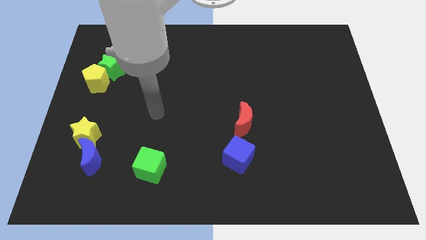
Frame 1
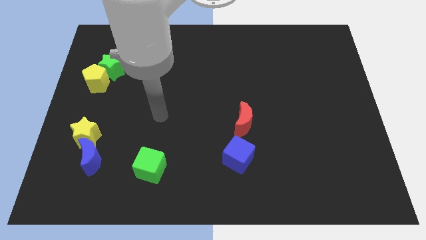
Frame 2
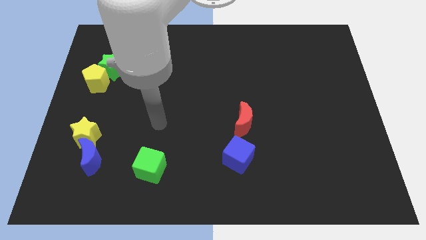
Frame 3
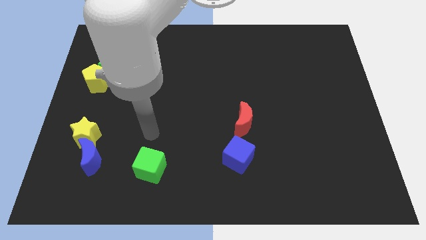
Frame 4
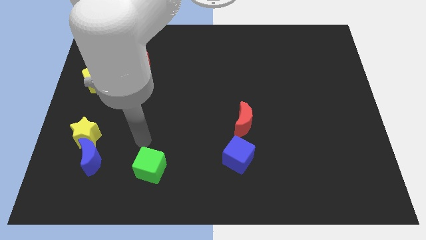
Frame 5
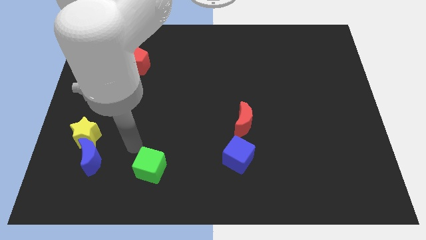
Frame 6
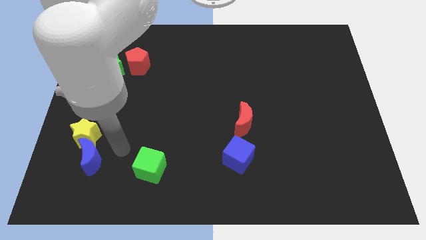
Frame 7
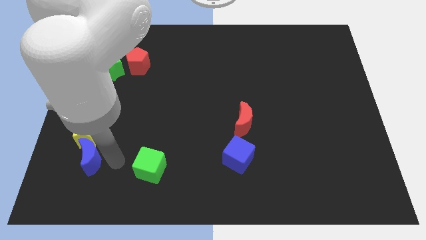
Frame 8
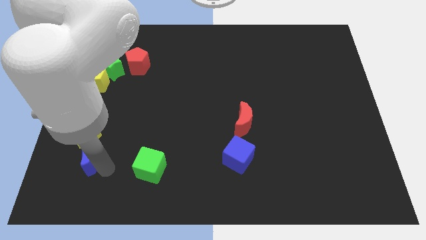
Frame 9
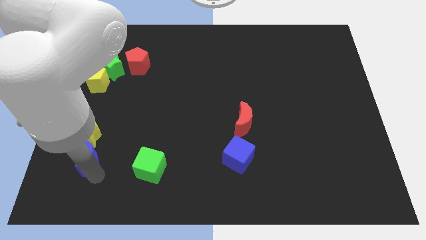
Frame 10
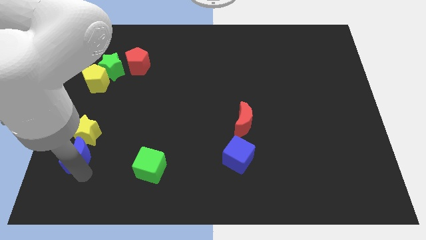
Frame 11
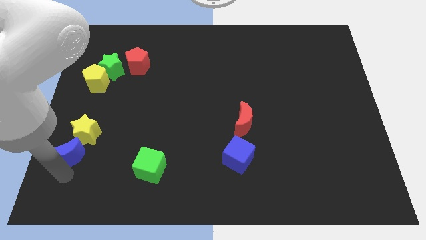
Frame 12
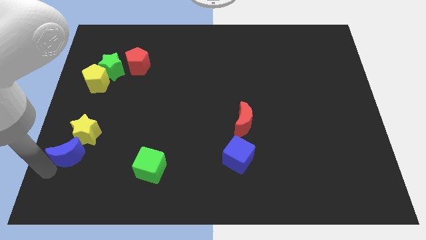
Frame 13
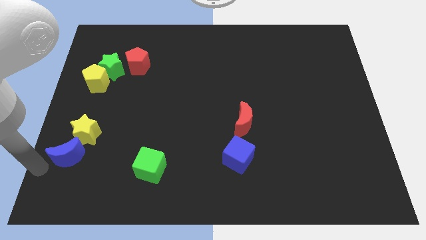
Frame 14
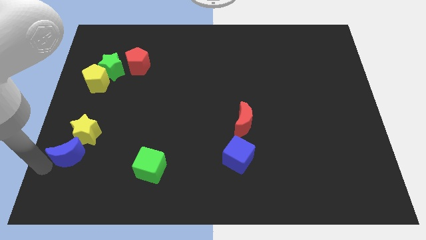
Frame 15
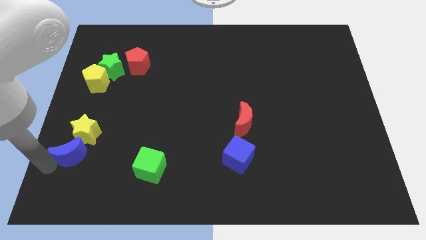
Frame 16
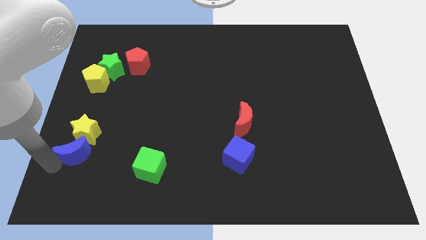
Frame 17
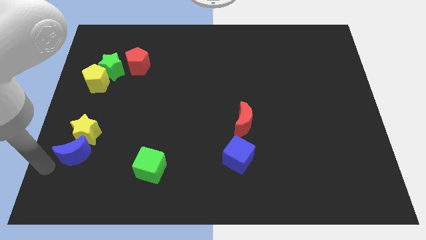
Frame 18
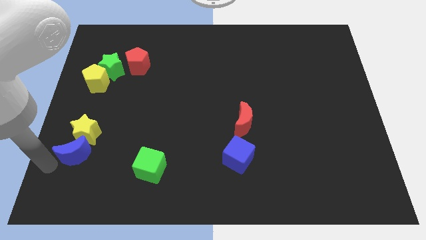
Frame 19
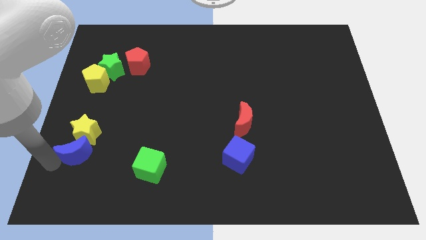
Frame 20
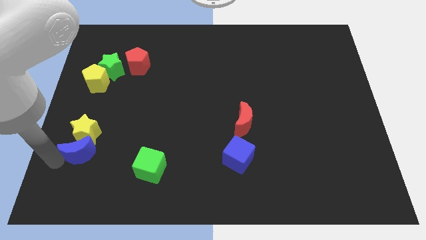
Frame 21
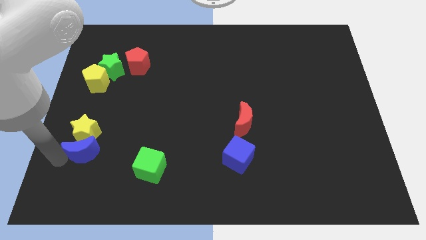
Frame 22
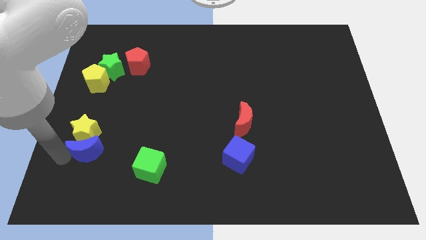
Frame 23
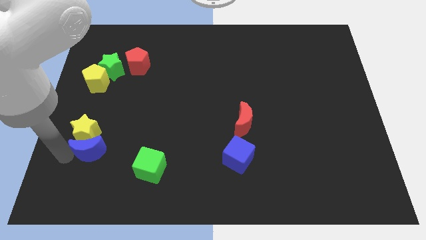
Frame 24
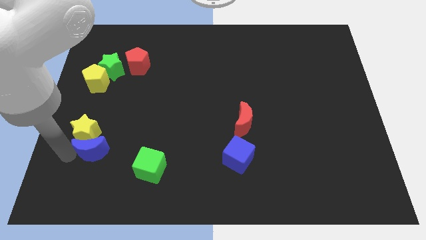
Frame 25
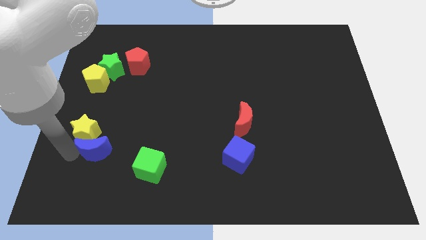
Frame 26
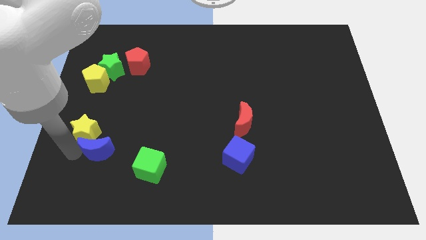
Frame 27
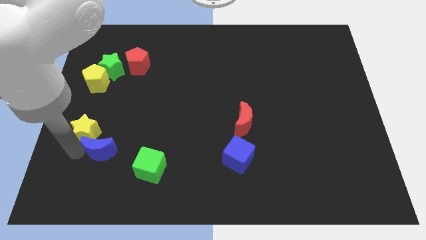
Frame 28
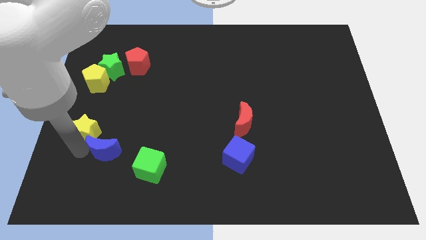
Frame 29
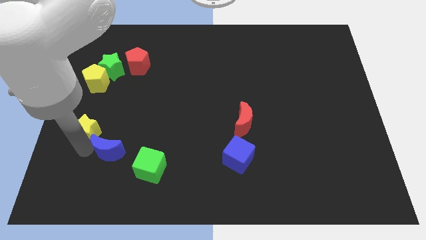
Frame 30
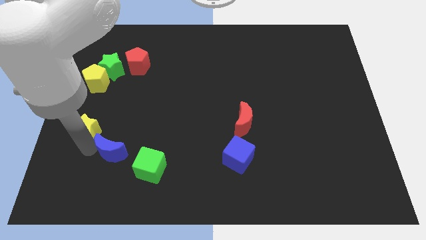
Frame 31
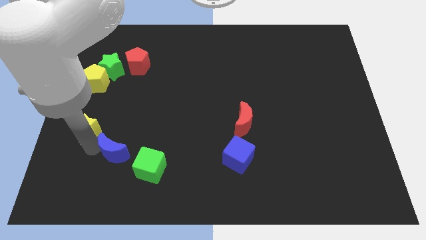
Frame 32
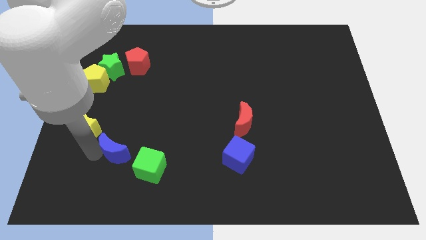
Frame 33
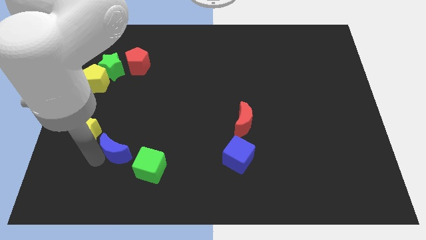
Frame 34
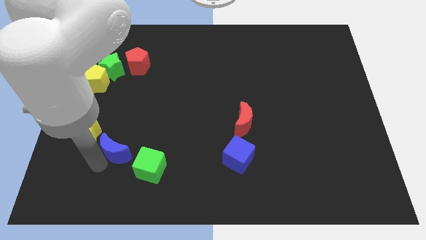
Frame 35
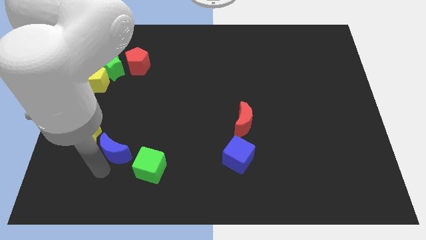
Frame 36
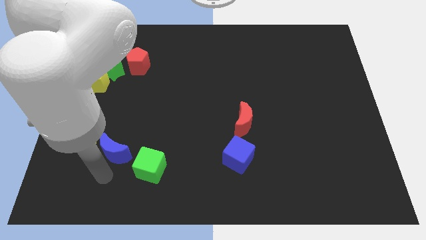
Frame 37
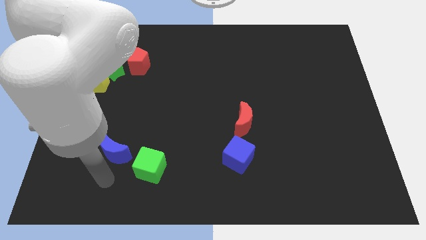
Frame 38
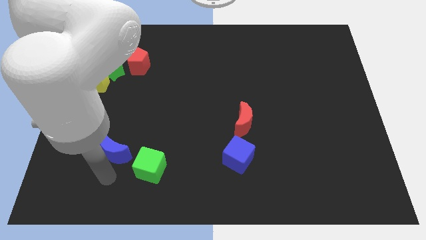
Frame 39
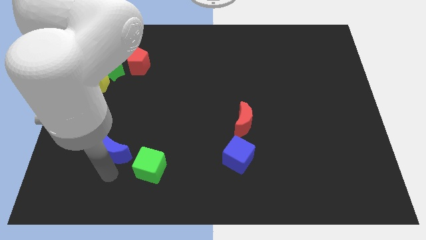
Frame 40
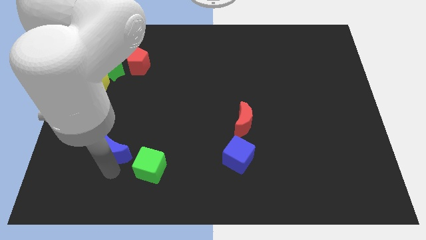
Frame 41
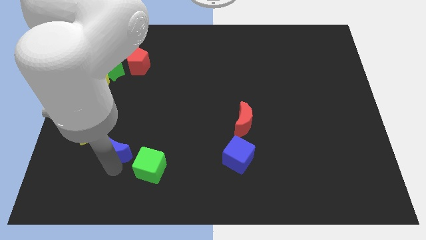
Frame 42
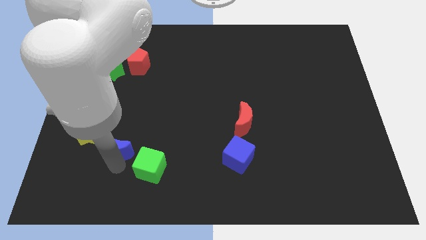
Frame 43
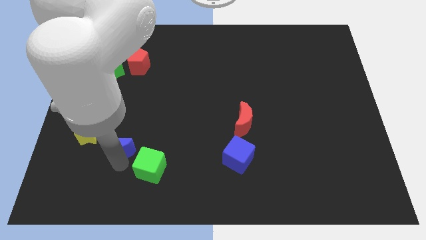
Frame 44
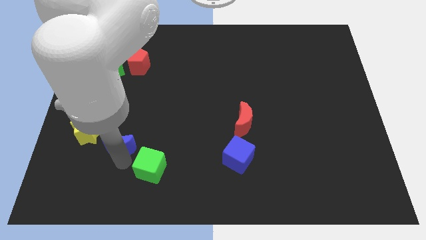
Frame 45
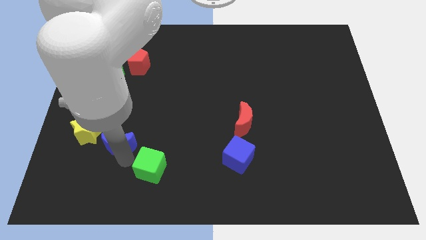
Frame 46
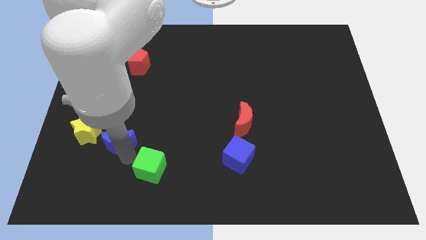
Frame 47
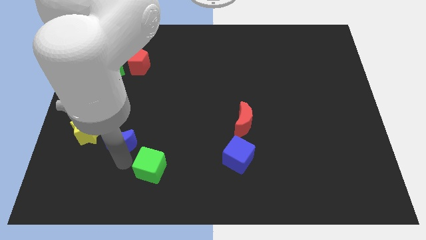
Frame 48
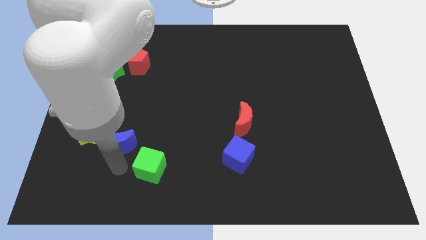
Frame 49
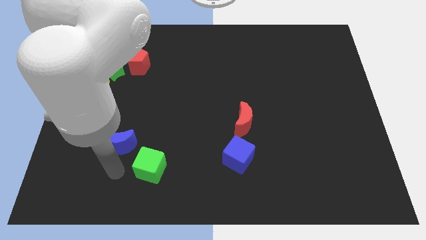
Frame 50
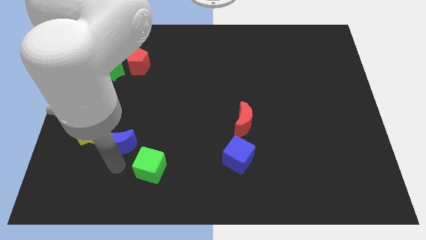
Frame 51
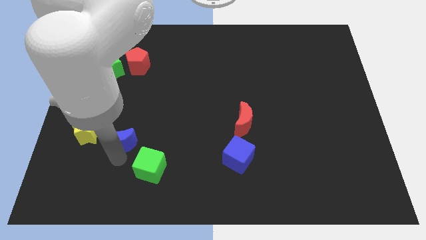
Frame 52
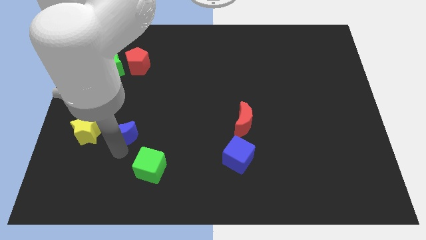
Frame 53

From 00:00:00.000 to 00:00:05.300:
slightly push the blue moon up and right diagonally

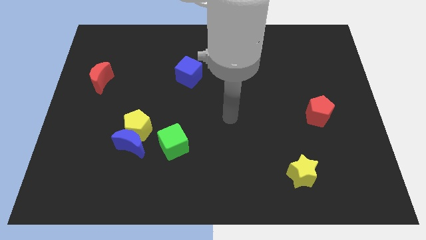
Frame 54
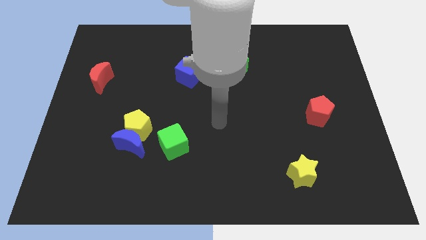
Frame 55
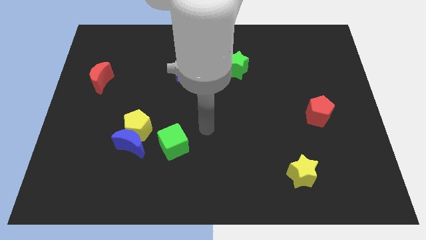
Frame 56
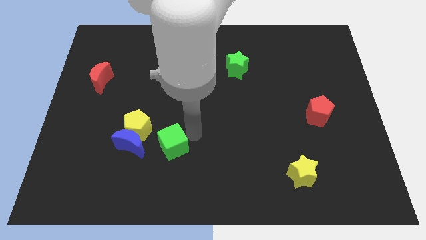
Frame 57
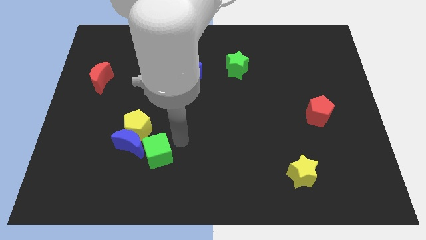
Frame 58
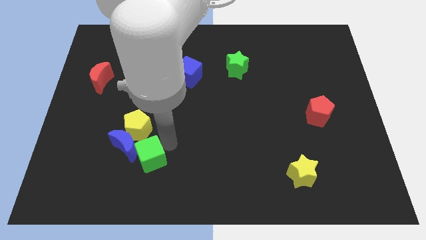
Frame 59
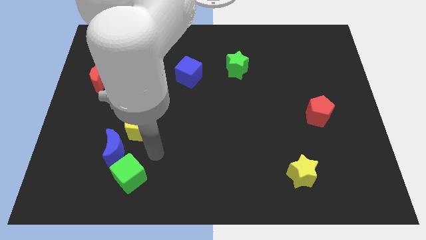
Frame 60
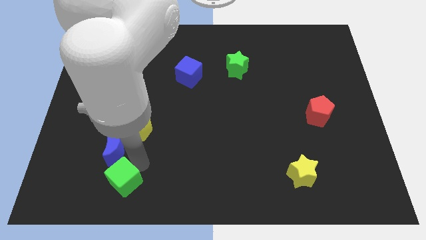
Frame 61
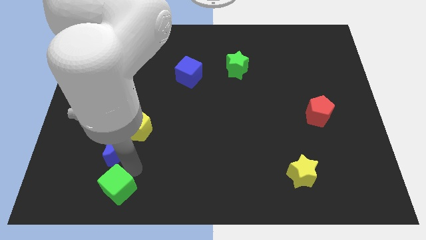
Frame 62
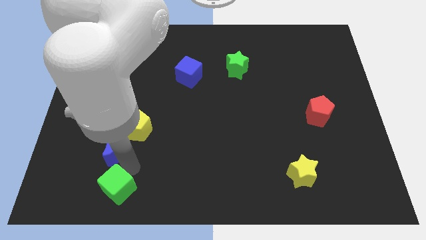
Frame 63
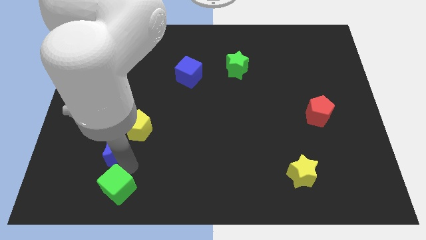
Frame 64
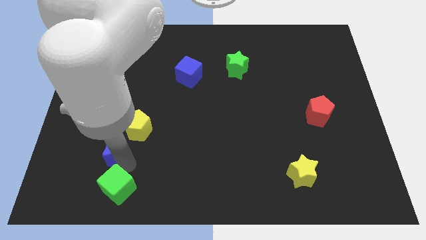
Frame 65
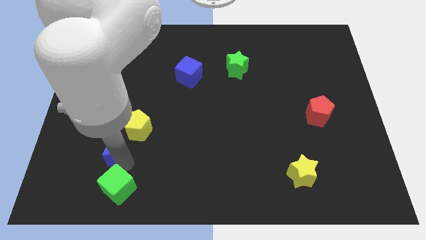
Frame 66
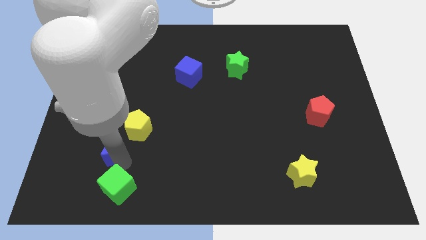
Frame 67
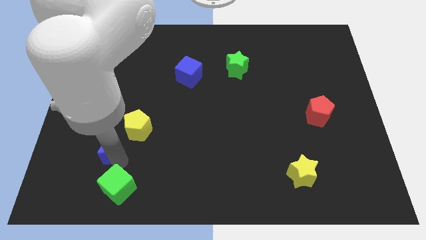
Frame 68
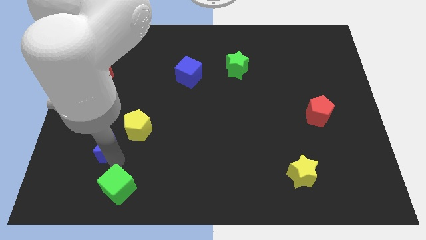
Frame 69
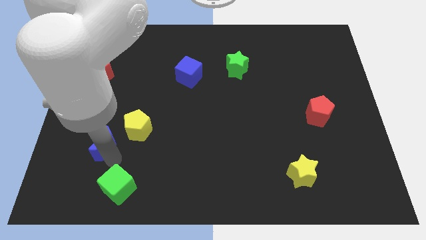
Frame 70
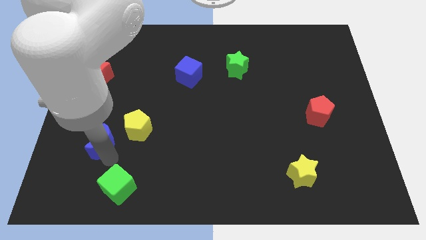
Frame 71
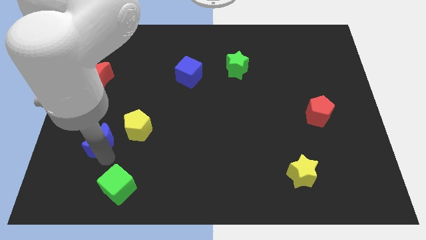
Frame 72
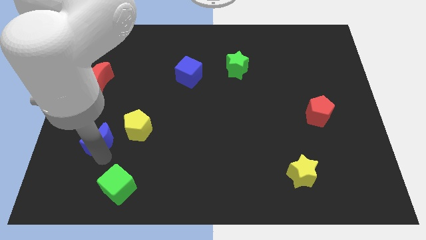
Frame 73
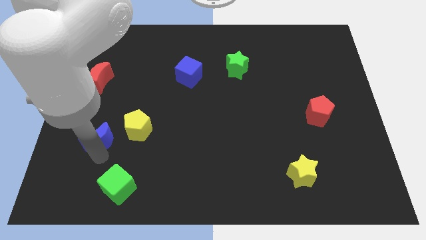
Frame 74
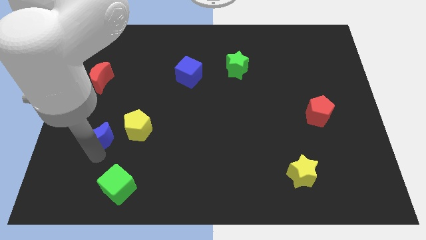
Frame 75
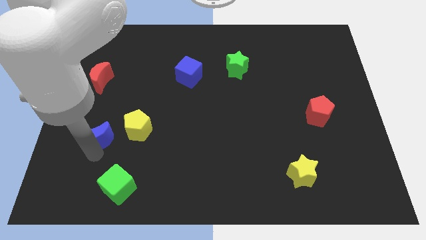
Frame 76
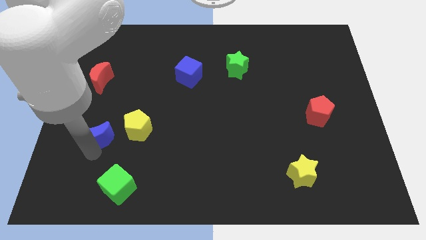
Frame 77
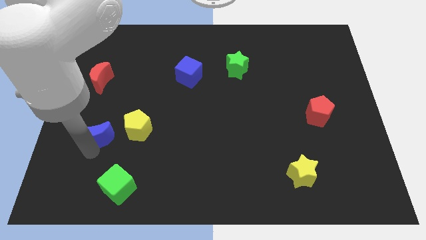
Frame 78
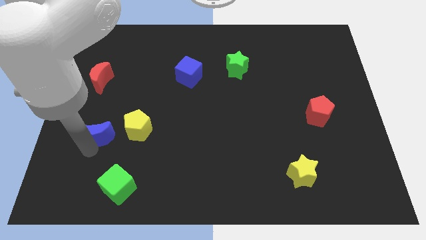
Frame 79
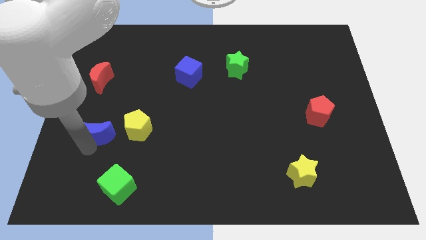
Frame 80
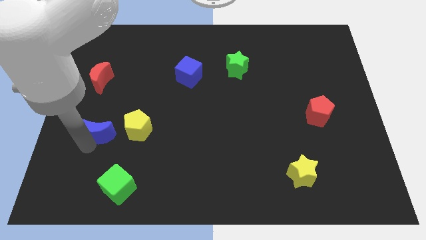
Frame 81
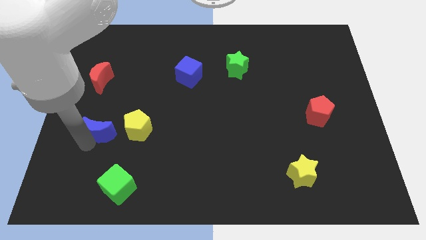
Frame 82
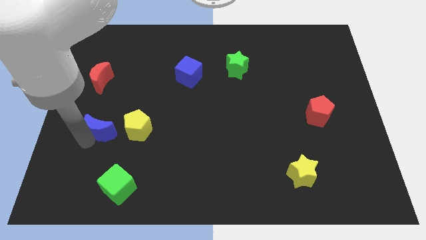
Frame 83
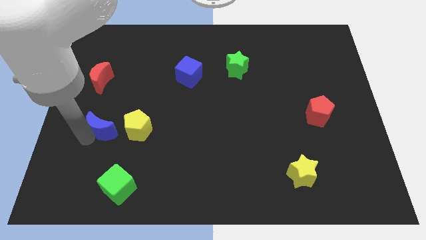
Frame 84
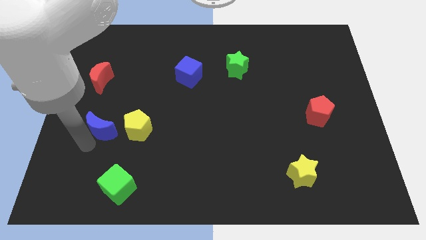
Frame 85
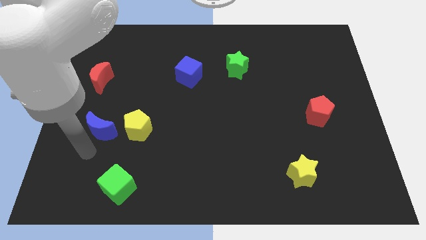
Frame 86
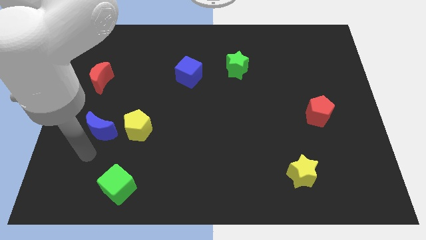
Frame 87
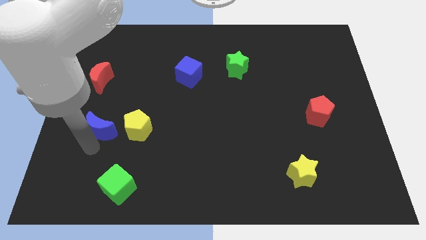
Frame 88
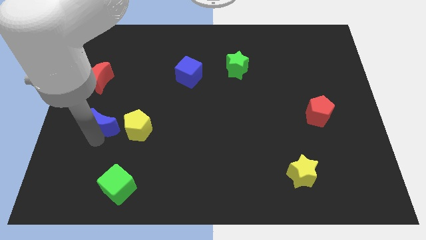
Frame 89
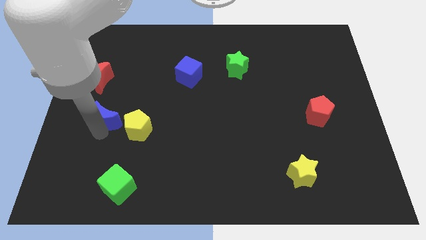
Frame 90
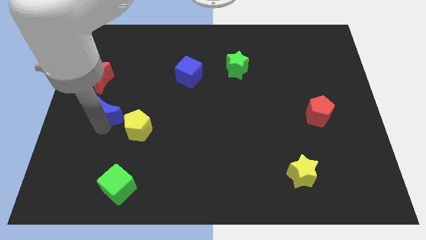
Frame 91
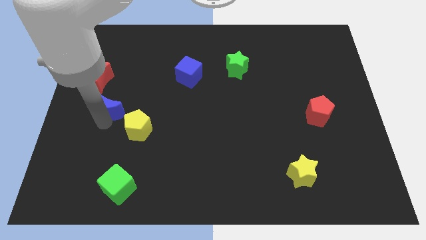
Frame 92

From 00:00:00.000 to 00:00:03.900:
slide the blue moon a bit up
